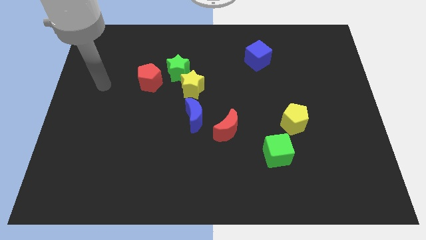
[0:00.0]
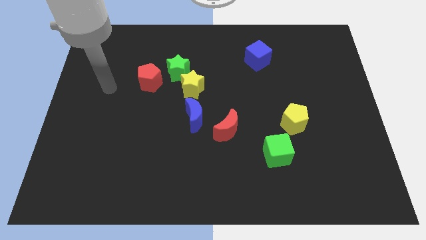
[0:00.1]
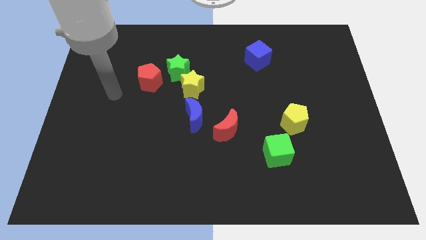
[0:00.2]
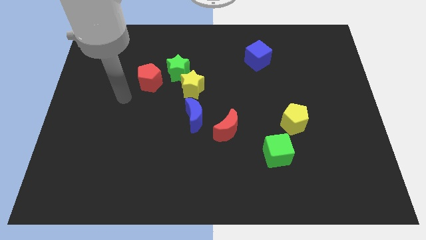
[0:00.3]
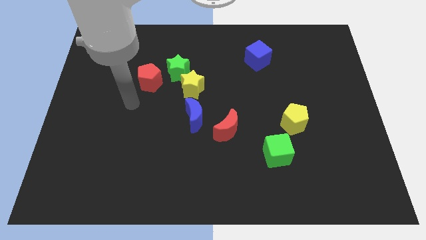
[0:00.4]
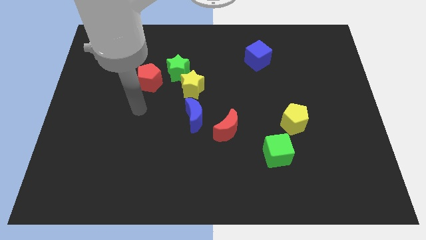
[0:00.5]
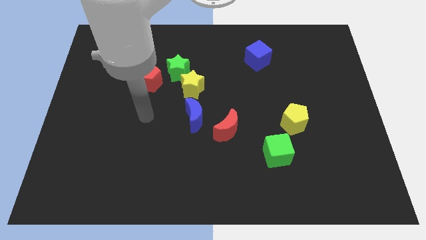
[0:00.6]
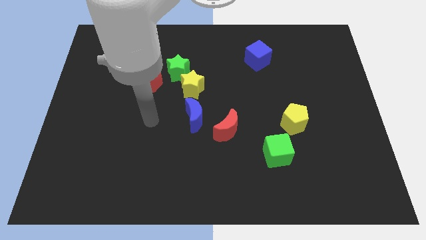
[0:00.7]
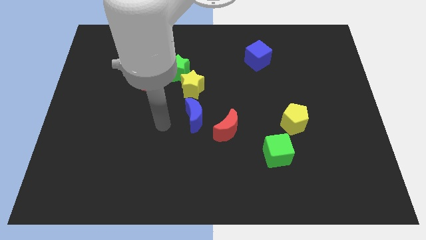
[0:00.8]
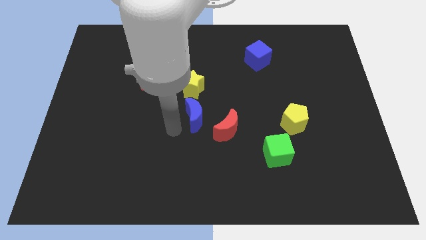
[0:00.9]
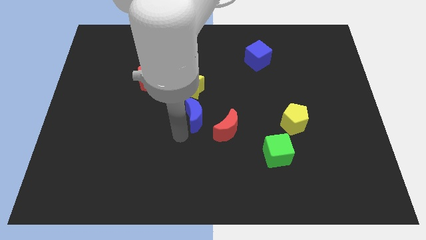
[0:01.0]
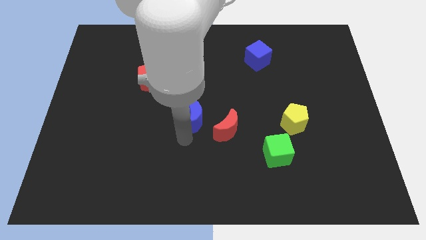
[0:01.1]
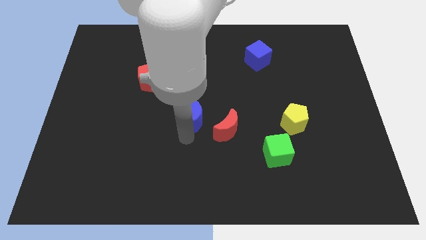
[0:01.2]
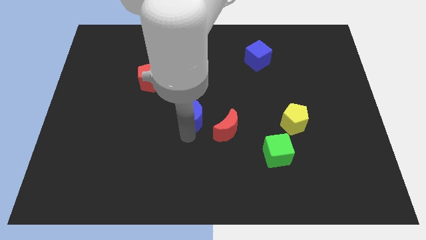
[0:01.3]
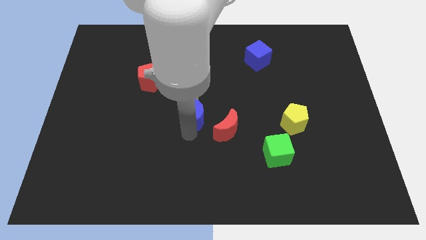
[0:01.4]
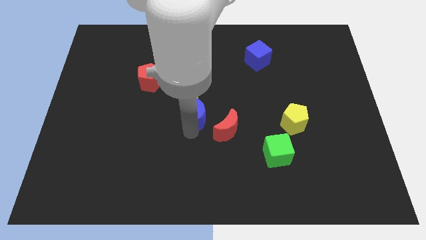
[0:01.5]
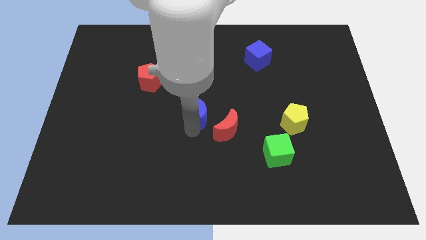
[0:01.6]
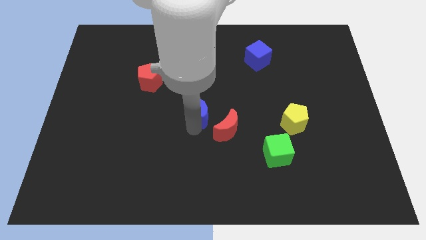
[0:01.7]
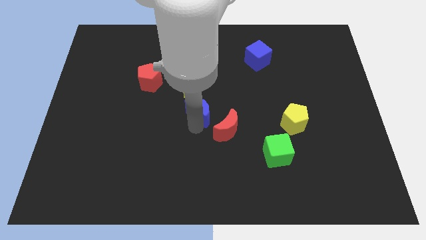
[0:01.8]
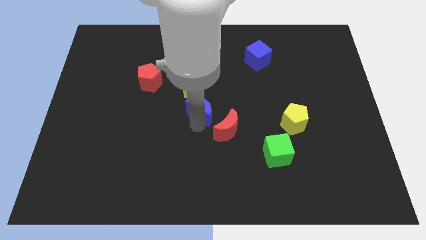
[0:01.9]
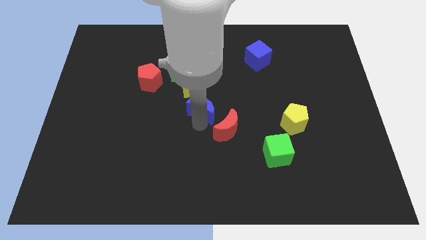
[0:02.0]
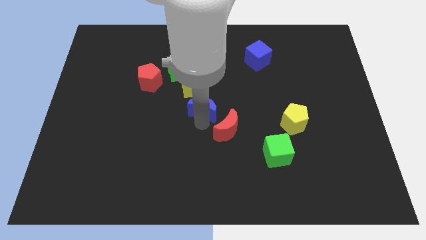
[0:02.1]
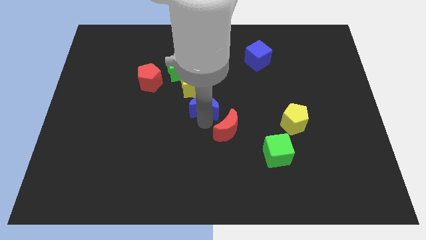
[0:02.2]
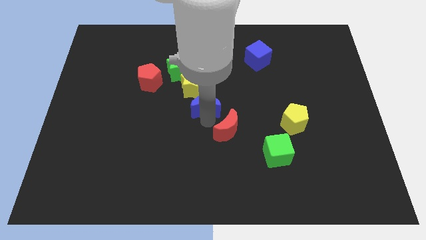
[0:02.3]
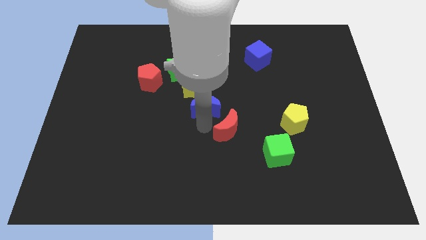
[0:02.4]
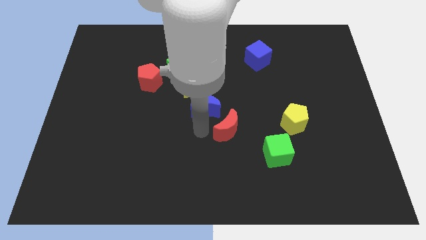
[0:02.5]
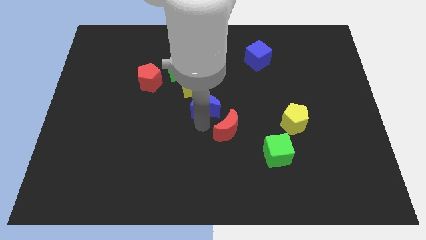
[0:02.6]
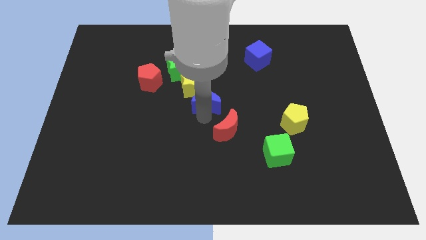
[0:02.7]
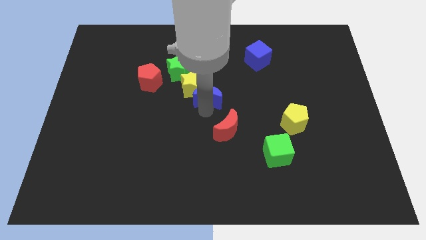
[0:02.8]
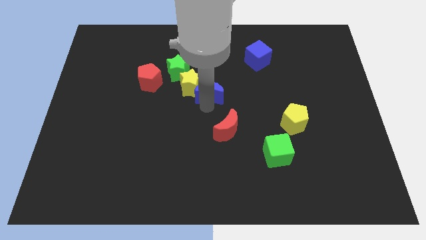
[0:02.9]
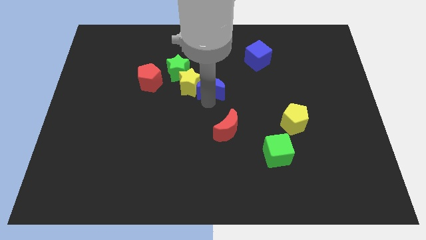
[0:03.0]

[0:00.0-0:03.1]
move the blue moon somewhat up

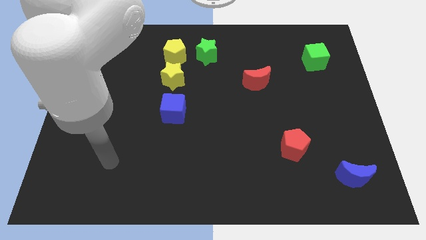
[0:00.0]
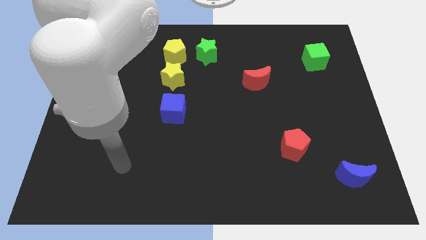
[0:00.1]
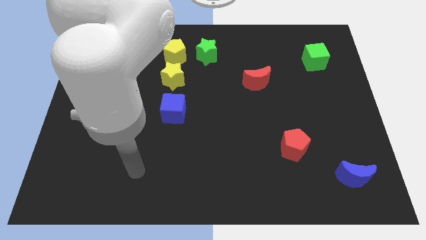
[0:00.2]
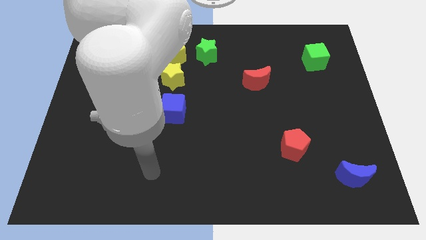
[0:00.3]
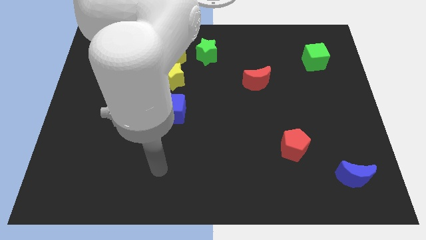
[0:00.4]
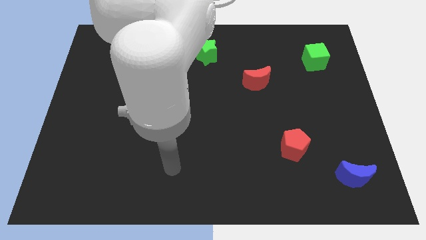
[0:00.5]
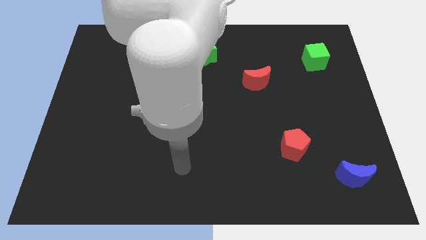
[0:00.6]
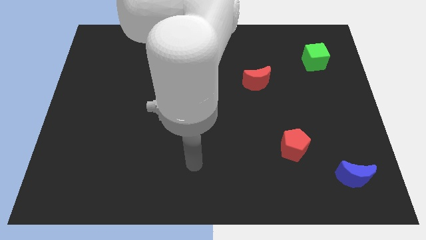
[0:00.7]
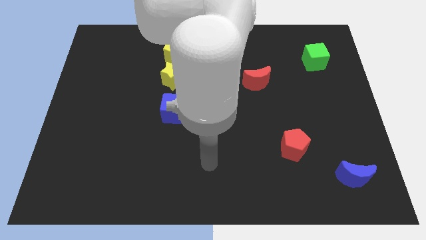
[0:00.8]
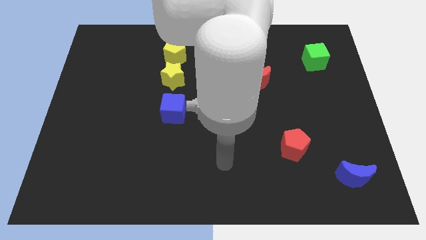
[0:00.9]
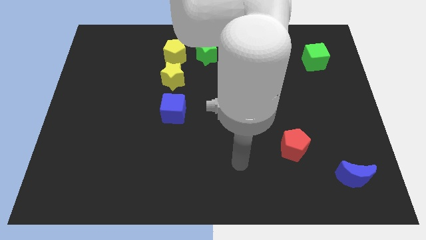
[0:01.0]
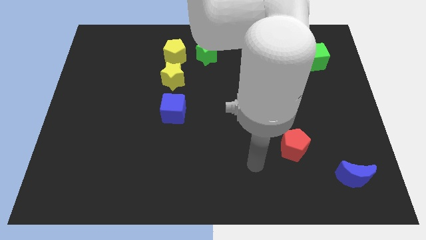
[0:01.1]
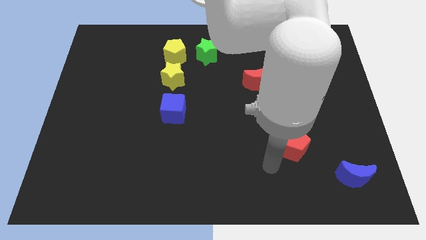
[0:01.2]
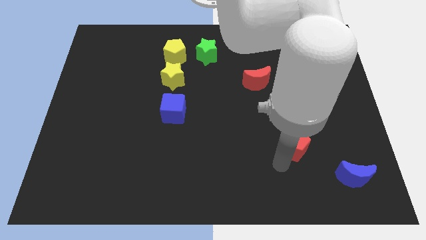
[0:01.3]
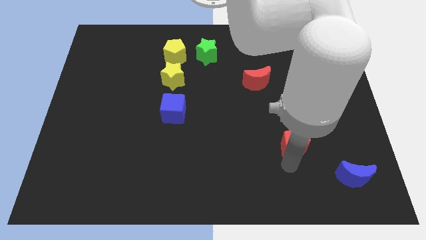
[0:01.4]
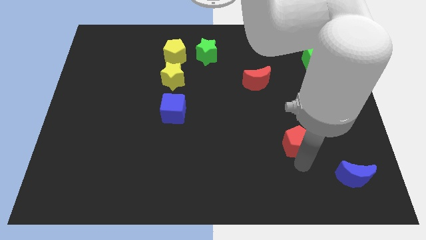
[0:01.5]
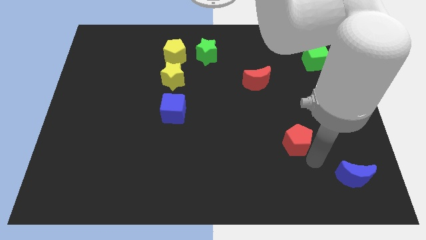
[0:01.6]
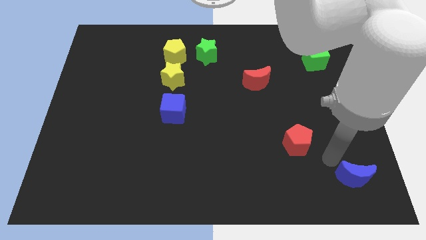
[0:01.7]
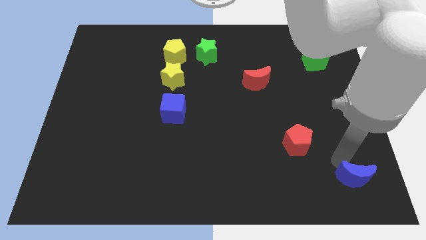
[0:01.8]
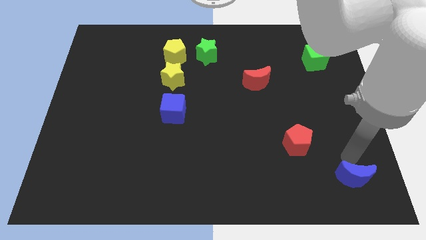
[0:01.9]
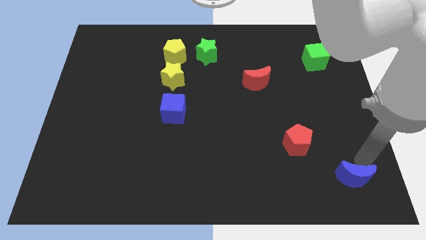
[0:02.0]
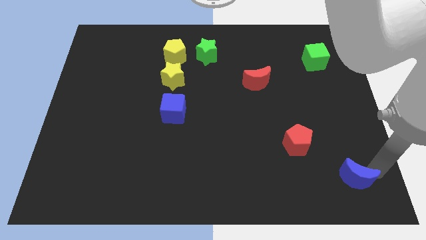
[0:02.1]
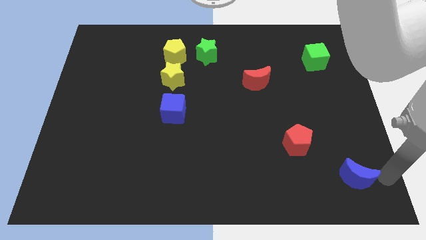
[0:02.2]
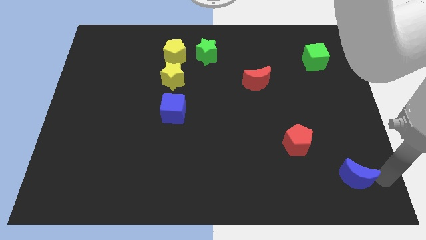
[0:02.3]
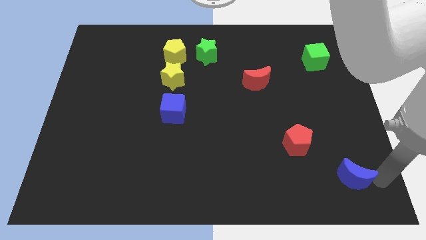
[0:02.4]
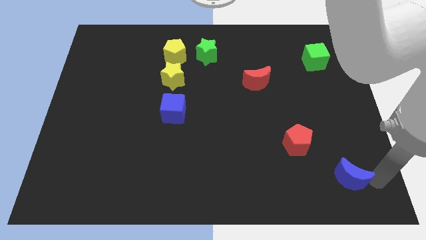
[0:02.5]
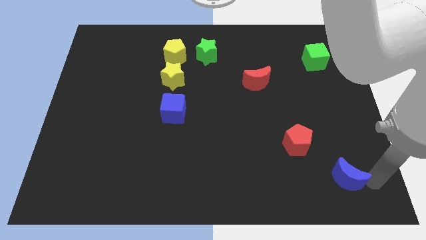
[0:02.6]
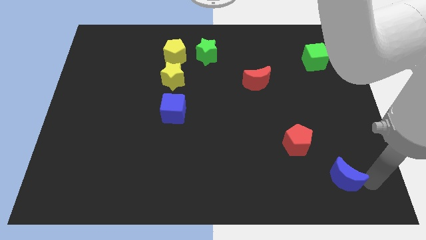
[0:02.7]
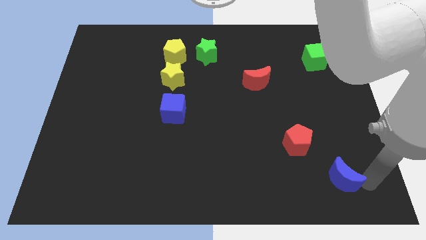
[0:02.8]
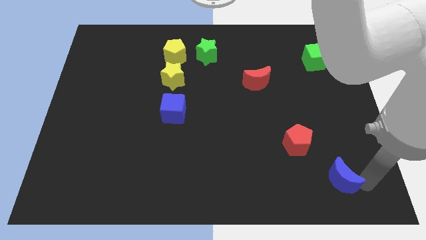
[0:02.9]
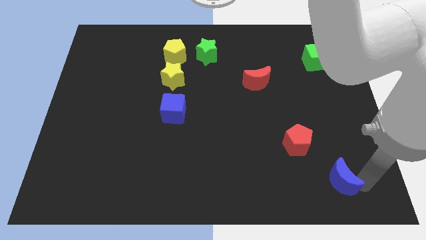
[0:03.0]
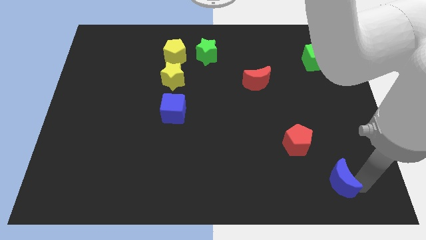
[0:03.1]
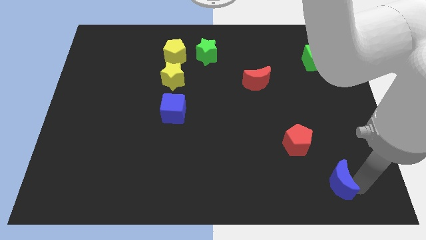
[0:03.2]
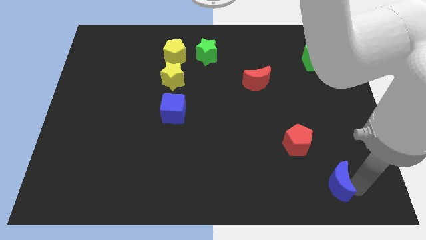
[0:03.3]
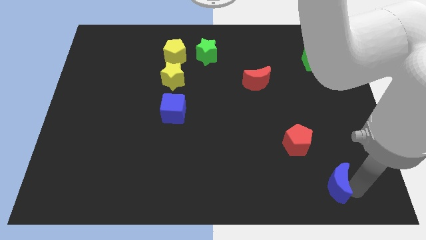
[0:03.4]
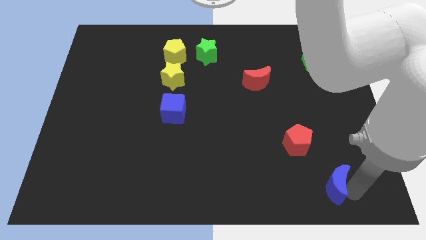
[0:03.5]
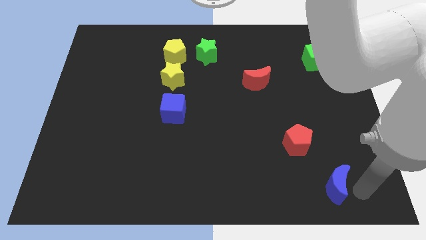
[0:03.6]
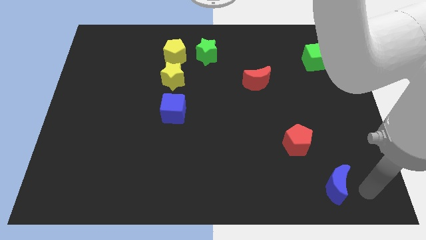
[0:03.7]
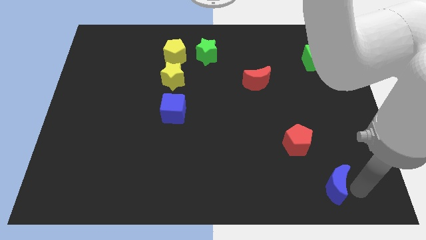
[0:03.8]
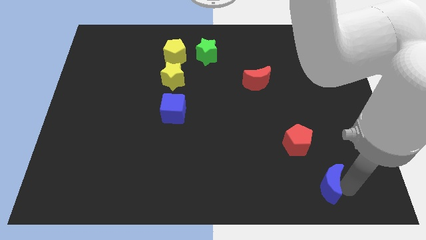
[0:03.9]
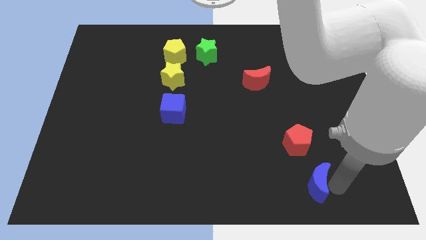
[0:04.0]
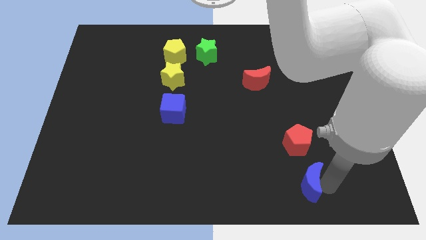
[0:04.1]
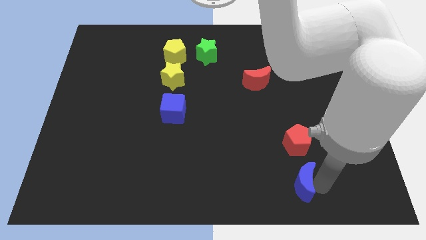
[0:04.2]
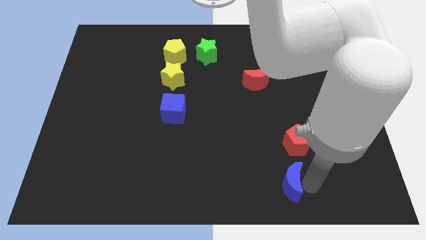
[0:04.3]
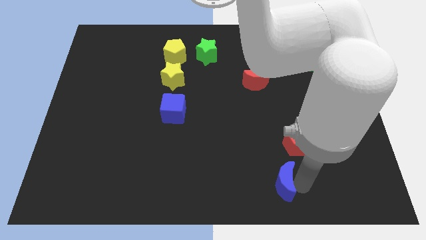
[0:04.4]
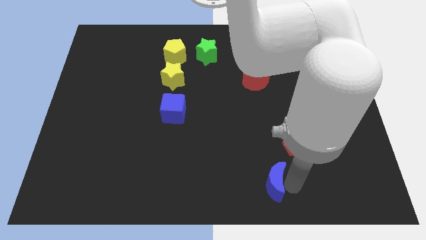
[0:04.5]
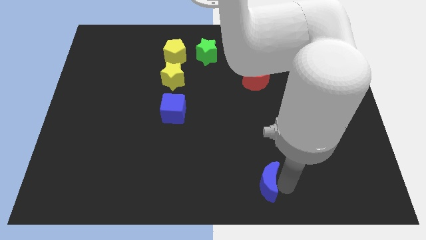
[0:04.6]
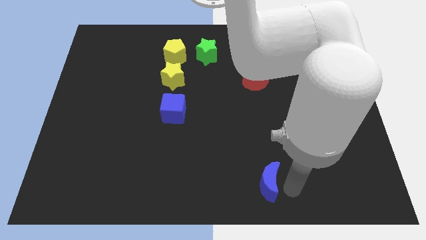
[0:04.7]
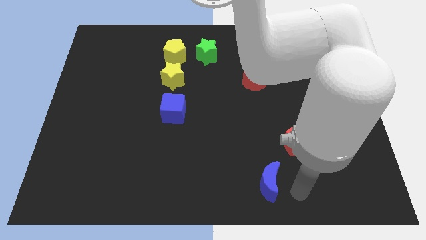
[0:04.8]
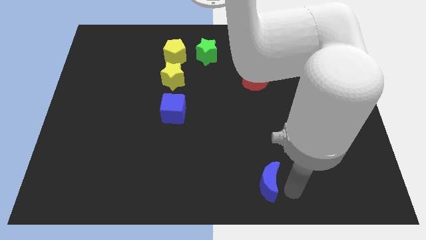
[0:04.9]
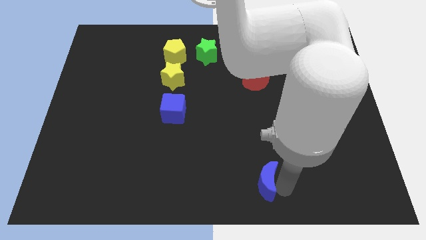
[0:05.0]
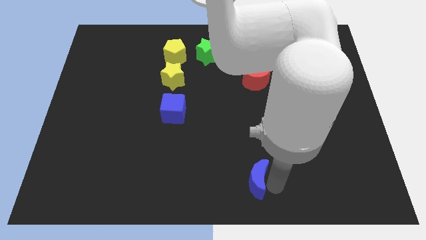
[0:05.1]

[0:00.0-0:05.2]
push the blue moon to the left
